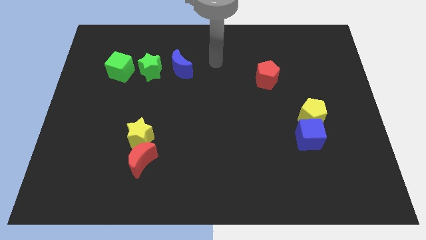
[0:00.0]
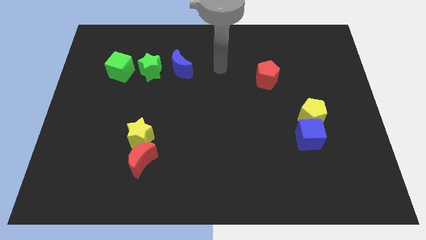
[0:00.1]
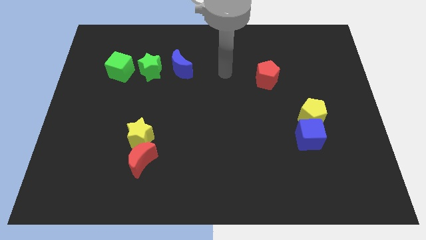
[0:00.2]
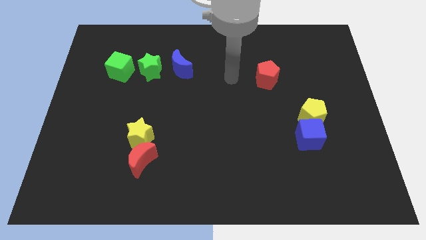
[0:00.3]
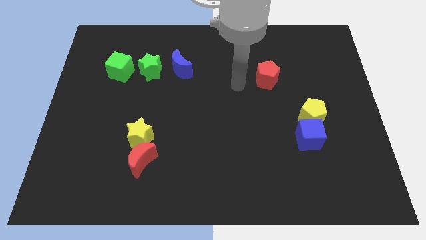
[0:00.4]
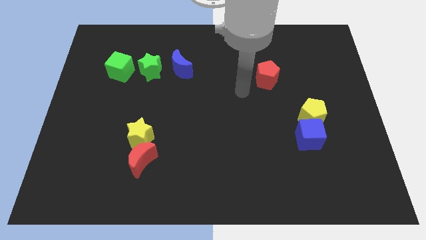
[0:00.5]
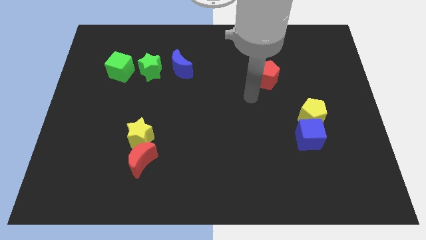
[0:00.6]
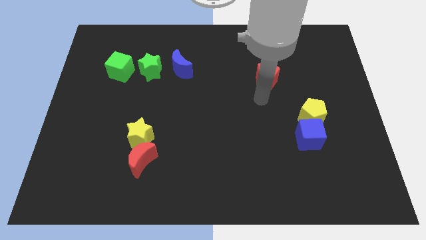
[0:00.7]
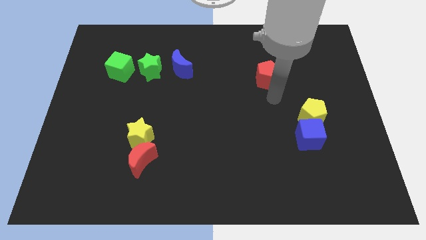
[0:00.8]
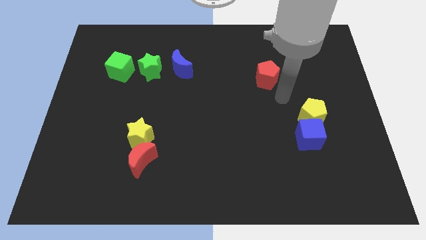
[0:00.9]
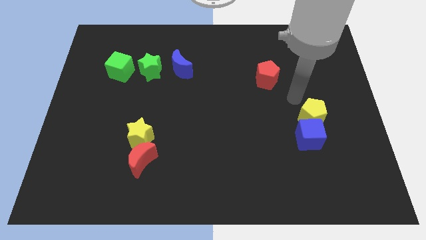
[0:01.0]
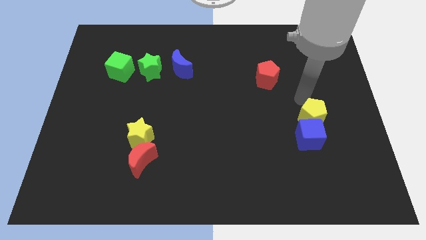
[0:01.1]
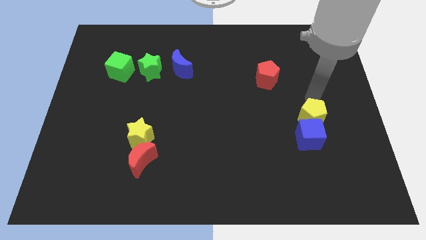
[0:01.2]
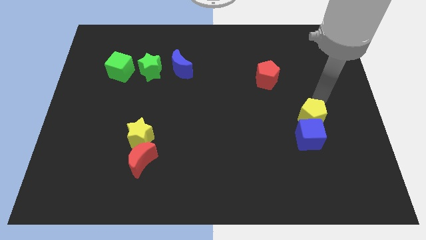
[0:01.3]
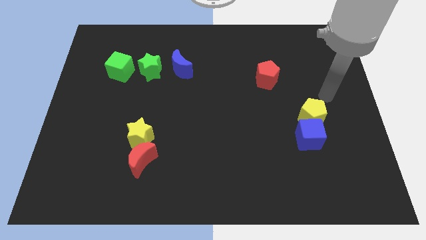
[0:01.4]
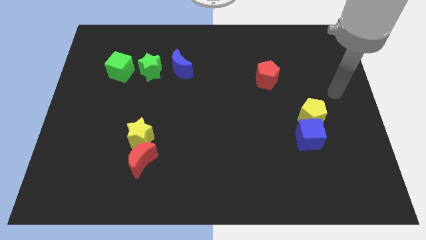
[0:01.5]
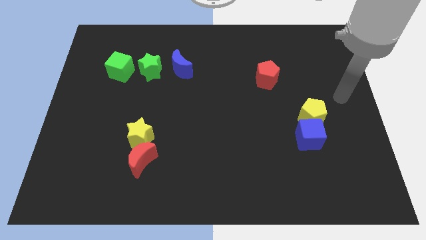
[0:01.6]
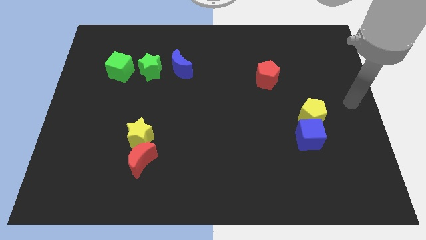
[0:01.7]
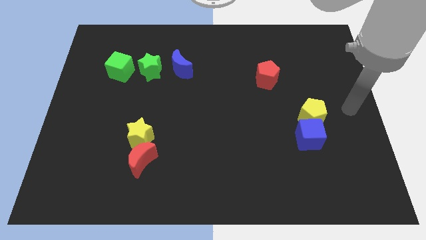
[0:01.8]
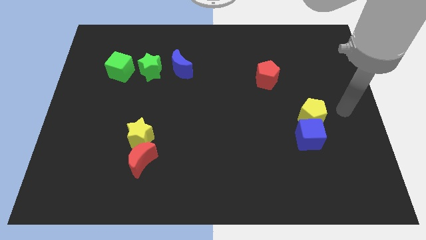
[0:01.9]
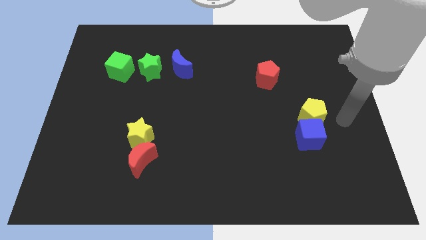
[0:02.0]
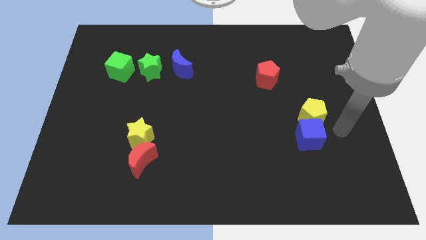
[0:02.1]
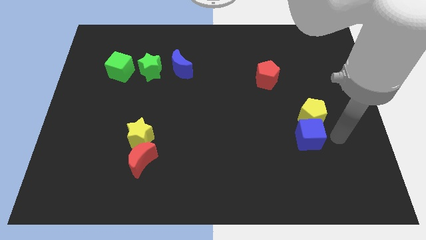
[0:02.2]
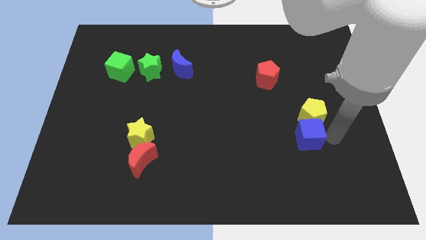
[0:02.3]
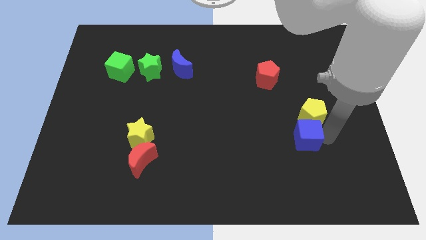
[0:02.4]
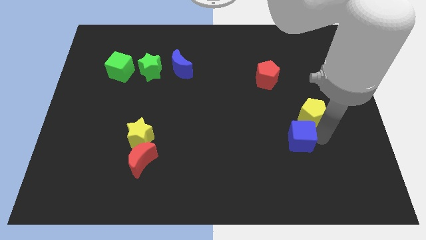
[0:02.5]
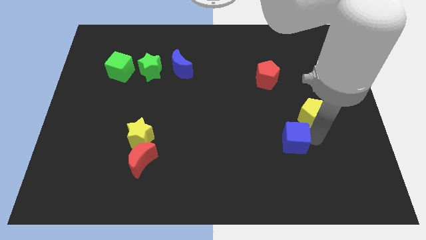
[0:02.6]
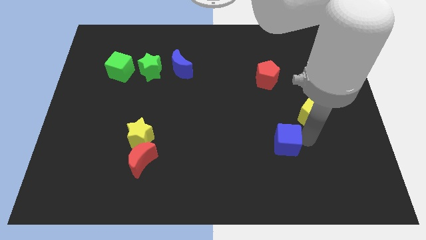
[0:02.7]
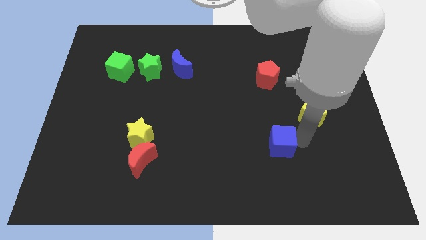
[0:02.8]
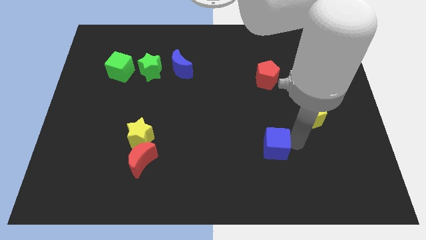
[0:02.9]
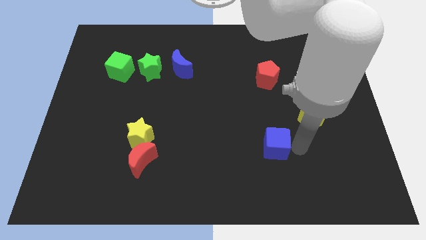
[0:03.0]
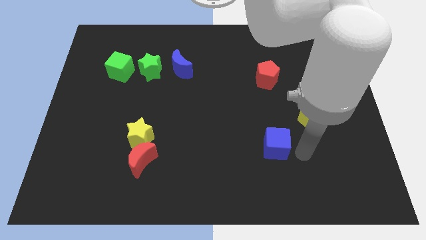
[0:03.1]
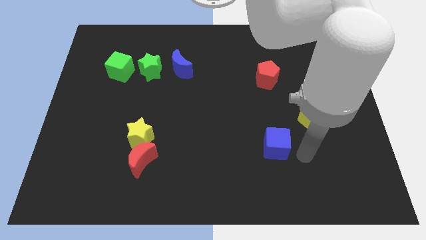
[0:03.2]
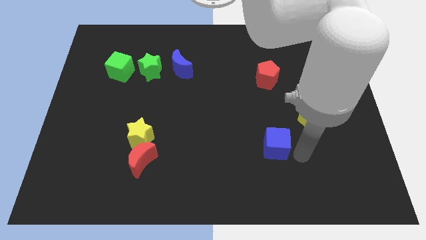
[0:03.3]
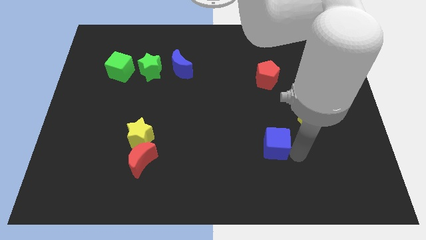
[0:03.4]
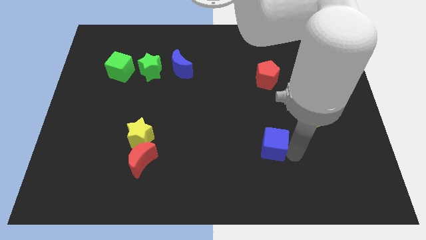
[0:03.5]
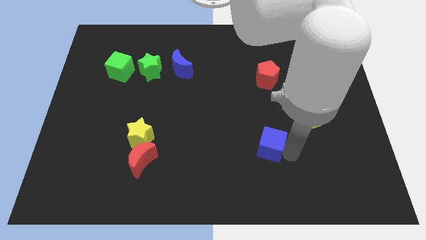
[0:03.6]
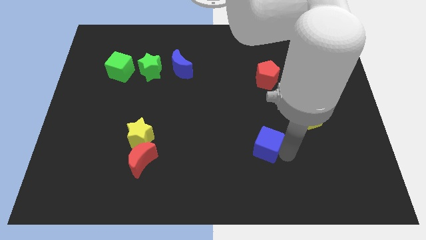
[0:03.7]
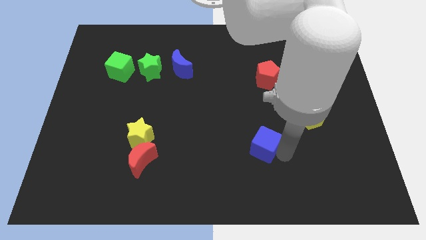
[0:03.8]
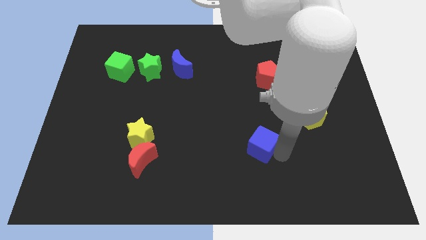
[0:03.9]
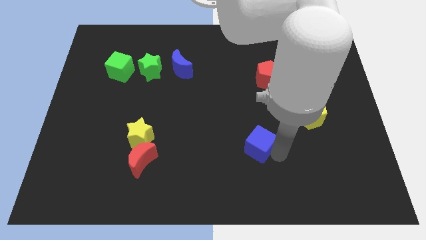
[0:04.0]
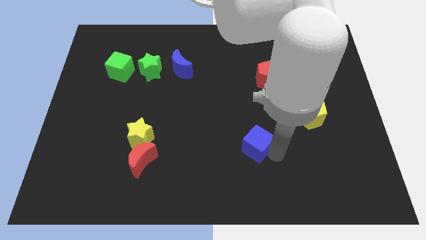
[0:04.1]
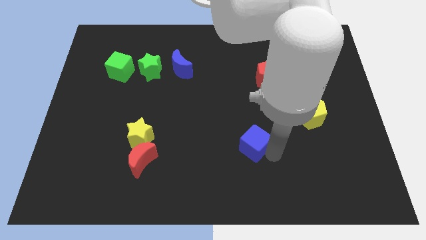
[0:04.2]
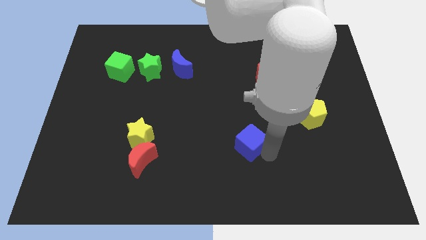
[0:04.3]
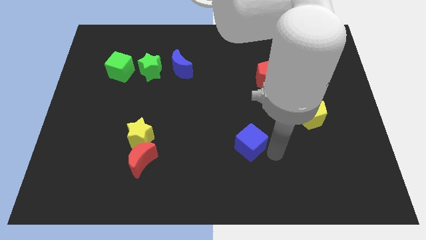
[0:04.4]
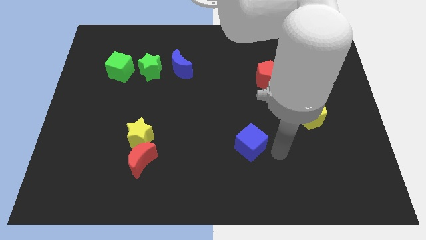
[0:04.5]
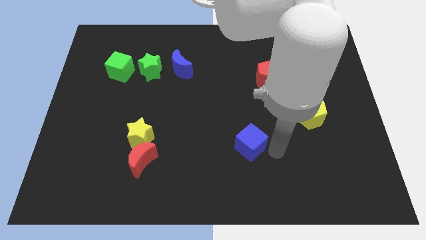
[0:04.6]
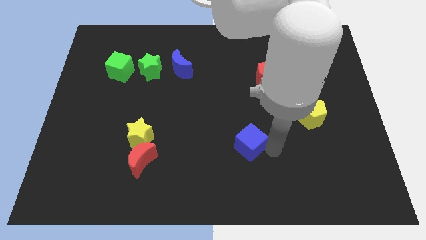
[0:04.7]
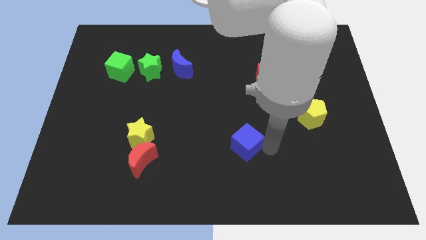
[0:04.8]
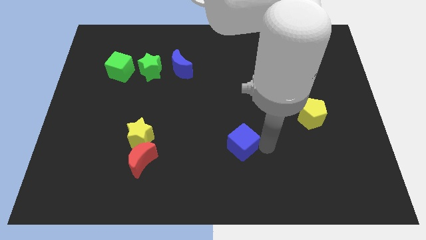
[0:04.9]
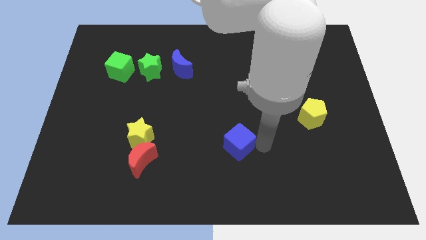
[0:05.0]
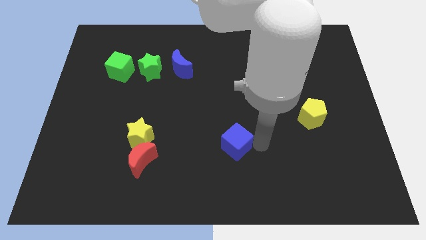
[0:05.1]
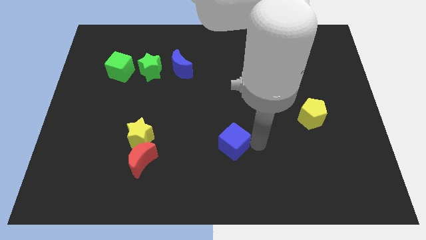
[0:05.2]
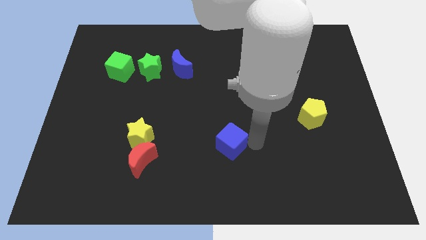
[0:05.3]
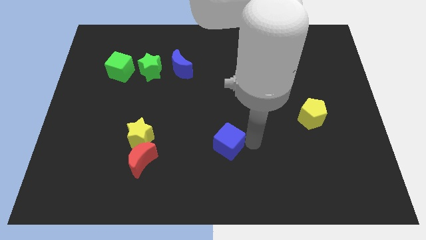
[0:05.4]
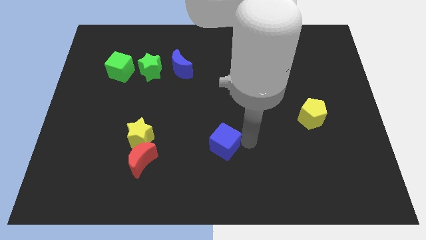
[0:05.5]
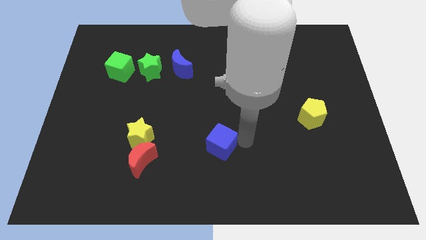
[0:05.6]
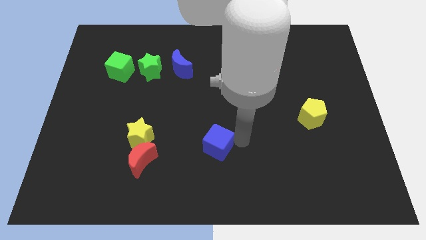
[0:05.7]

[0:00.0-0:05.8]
slide the blue cube left

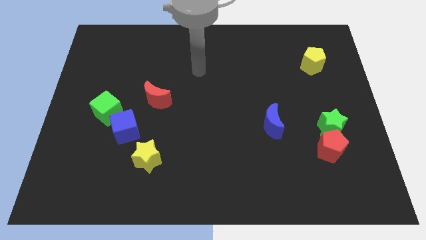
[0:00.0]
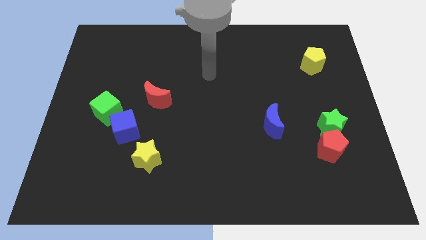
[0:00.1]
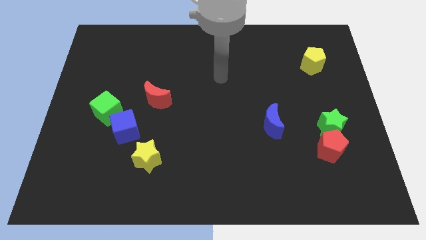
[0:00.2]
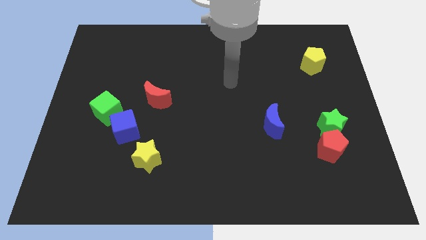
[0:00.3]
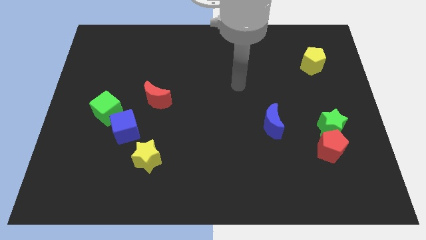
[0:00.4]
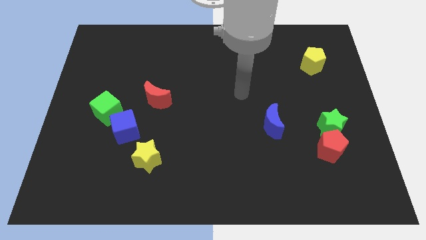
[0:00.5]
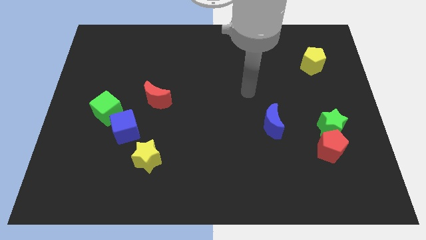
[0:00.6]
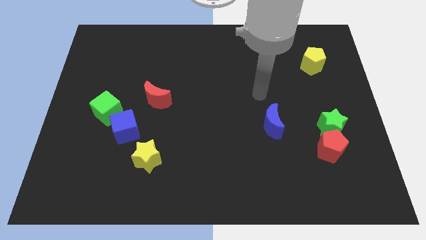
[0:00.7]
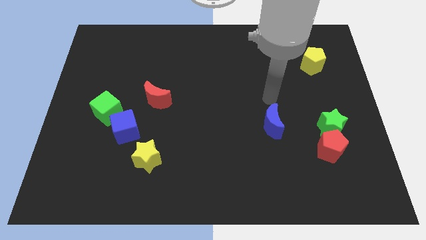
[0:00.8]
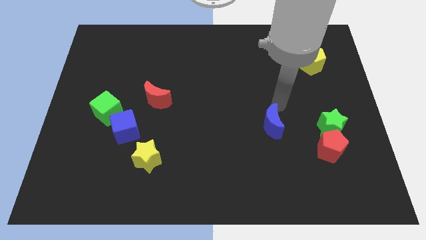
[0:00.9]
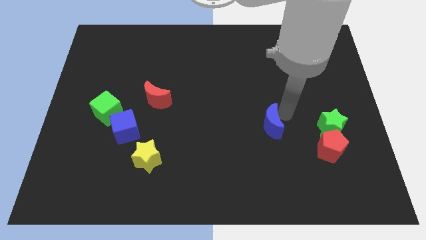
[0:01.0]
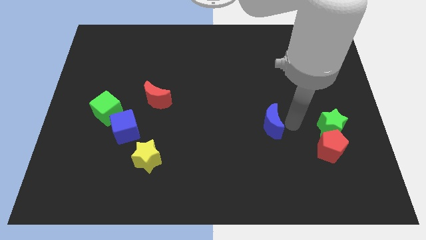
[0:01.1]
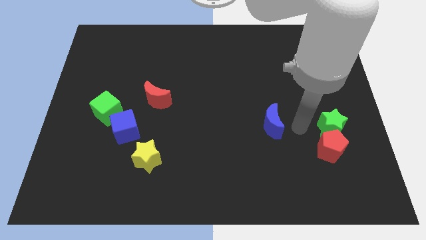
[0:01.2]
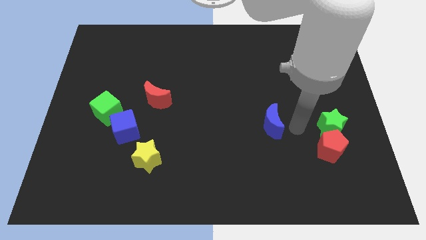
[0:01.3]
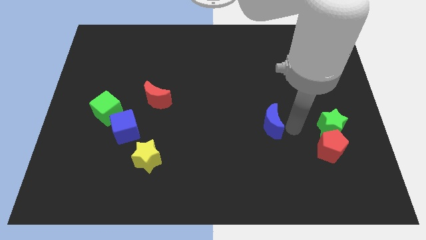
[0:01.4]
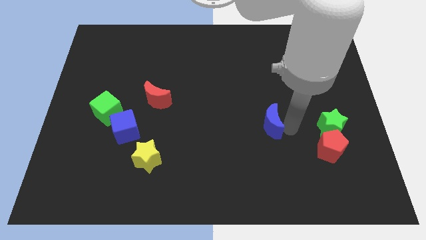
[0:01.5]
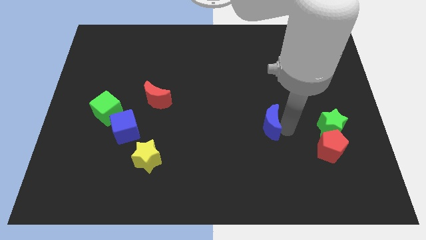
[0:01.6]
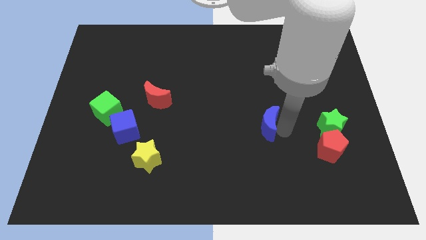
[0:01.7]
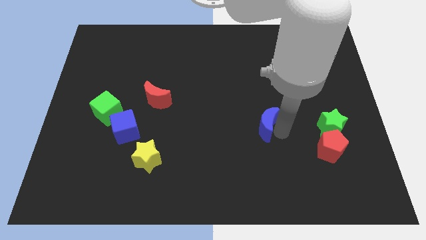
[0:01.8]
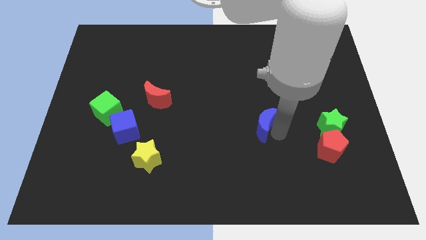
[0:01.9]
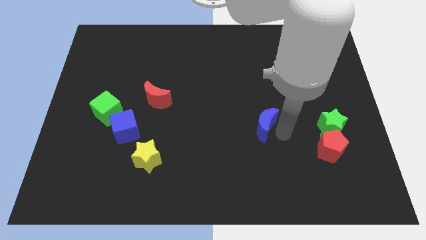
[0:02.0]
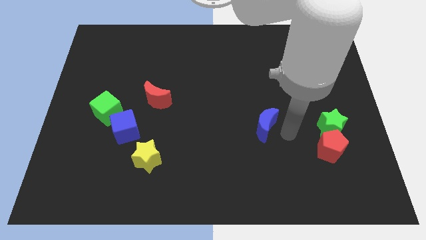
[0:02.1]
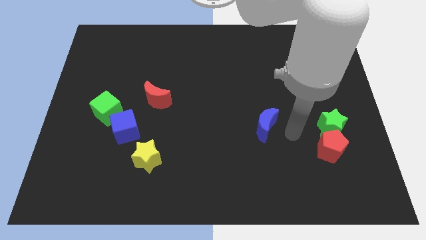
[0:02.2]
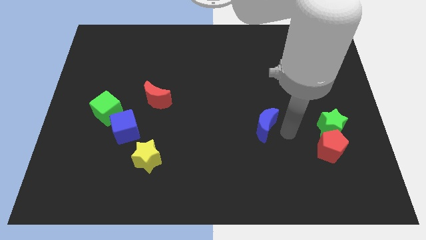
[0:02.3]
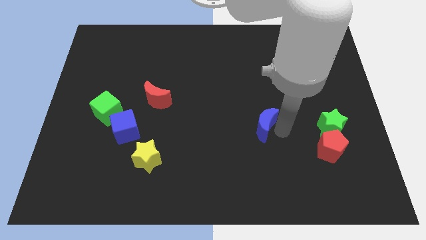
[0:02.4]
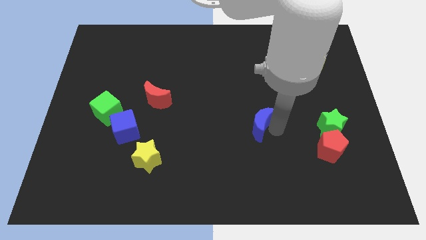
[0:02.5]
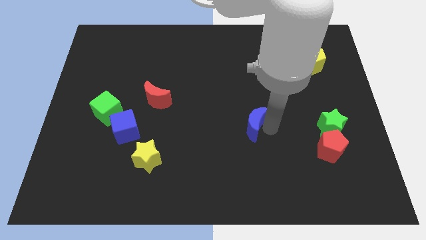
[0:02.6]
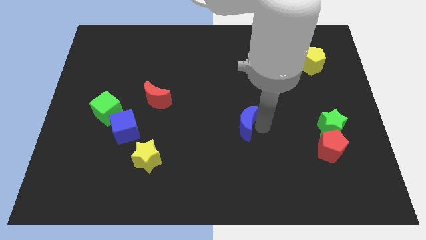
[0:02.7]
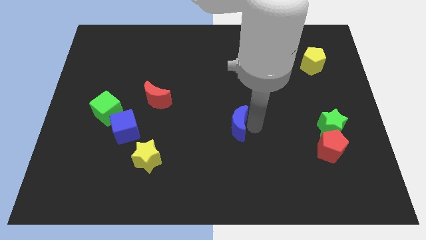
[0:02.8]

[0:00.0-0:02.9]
slightly slide the blue moon to the left
